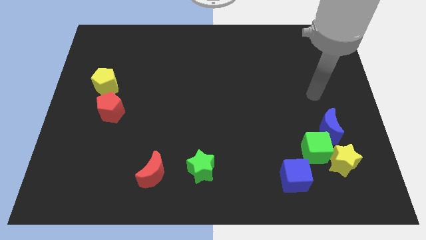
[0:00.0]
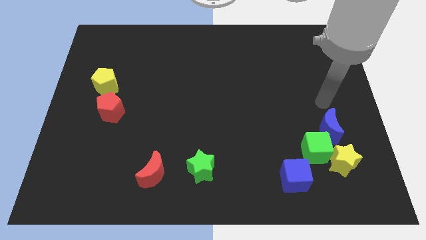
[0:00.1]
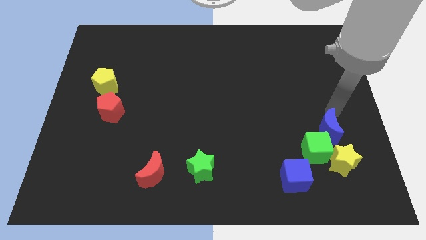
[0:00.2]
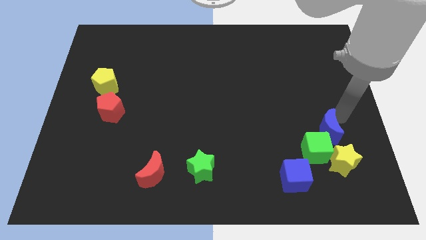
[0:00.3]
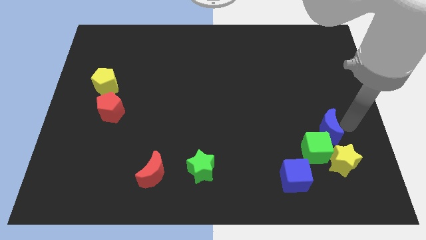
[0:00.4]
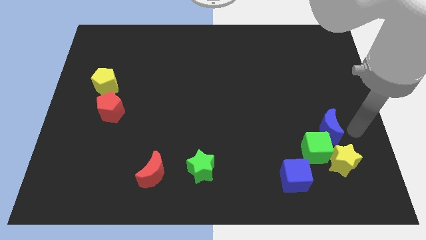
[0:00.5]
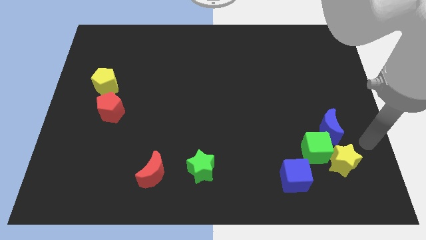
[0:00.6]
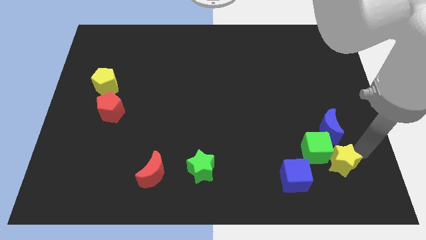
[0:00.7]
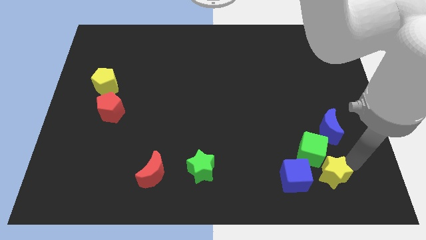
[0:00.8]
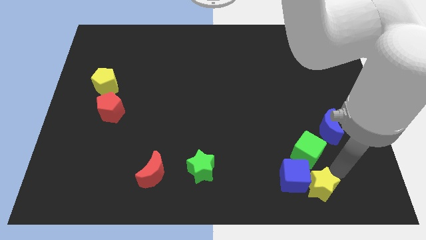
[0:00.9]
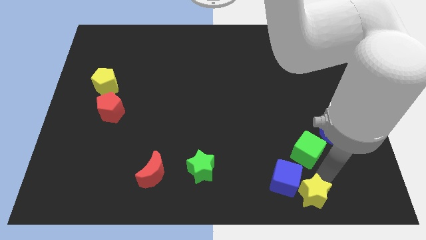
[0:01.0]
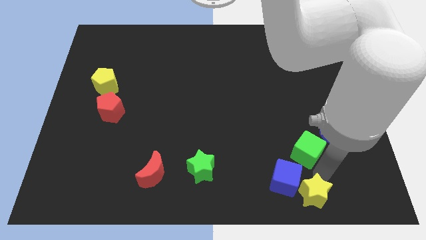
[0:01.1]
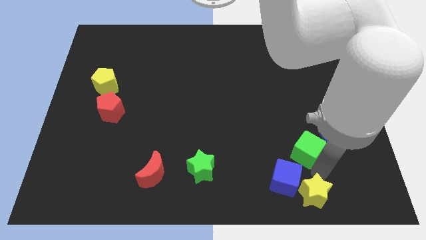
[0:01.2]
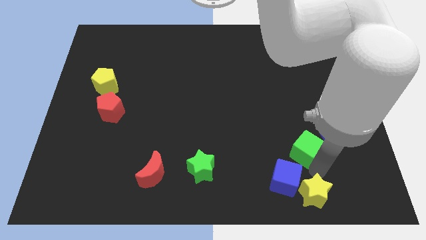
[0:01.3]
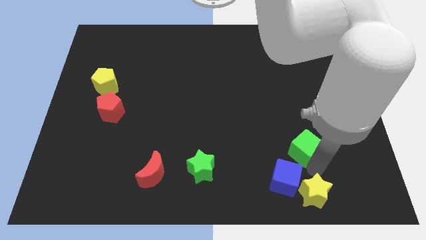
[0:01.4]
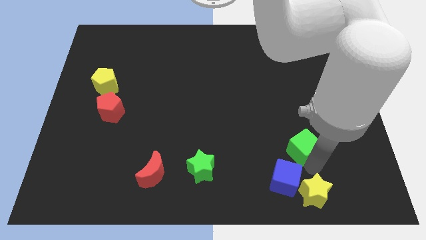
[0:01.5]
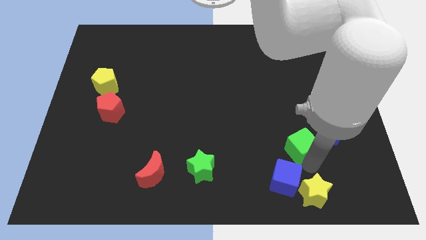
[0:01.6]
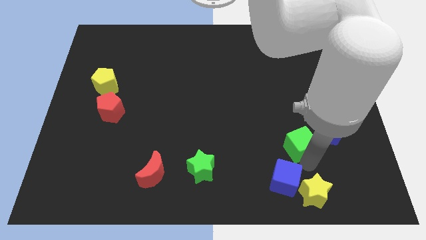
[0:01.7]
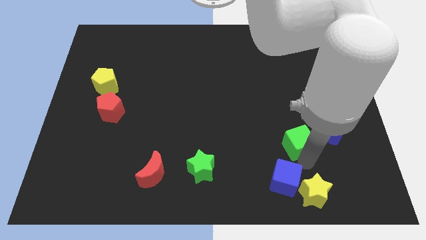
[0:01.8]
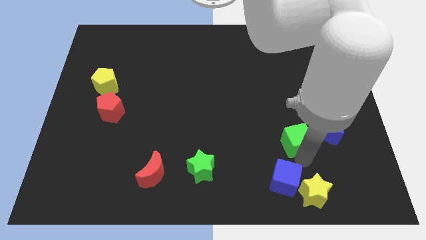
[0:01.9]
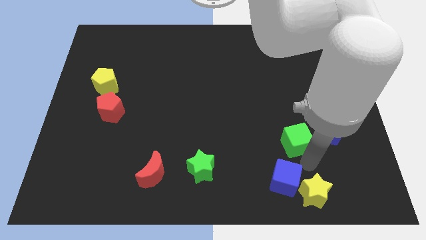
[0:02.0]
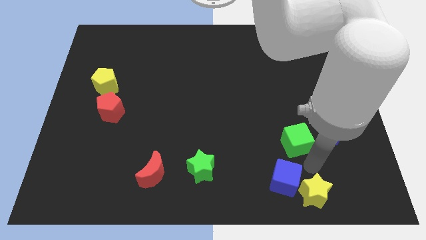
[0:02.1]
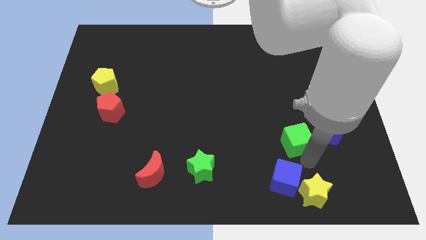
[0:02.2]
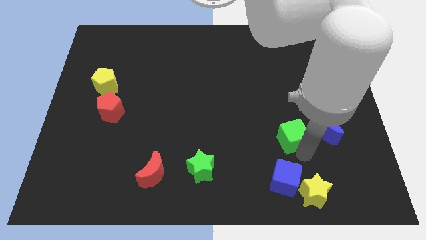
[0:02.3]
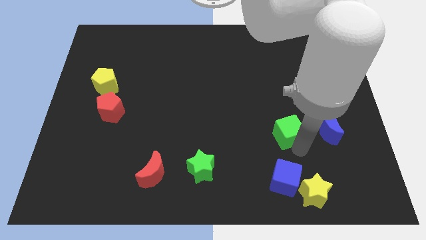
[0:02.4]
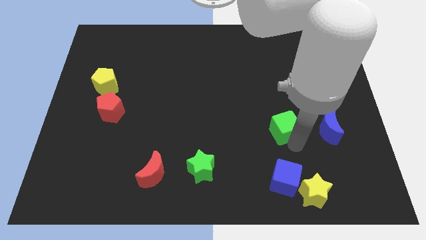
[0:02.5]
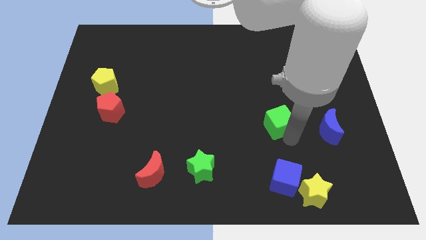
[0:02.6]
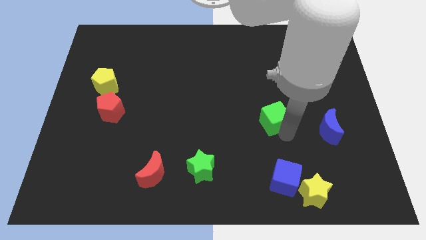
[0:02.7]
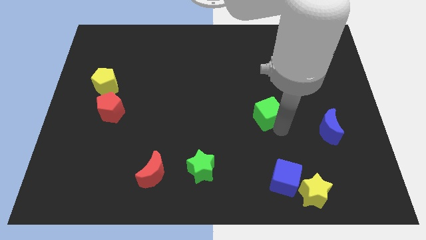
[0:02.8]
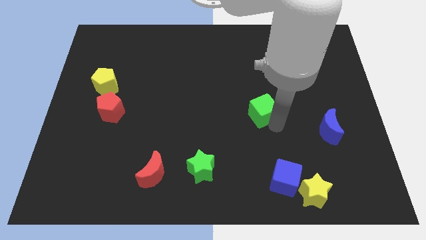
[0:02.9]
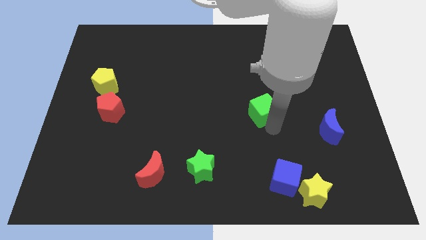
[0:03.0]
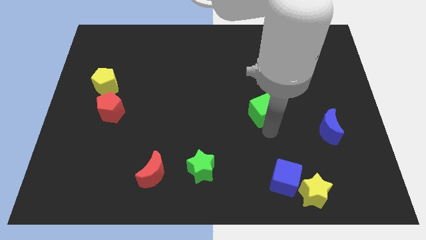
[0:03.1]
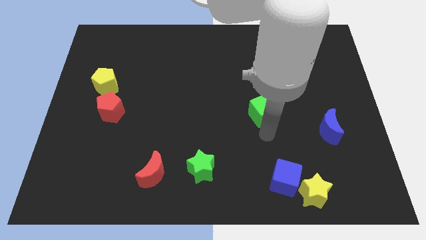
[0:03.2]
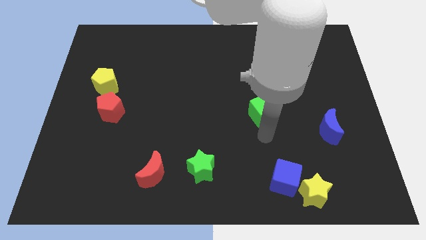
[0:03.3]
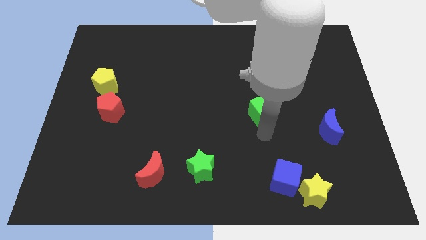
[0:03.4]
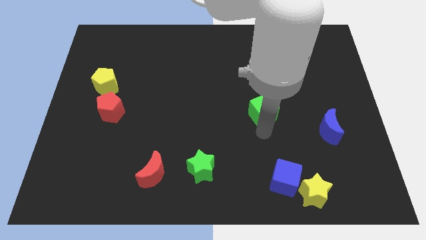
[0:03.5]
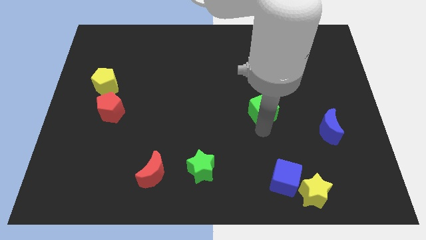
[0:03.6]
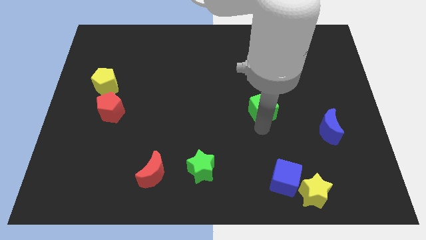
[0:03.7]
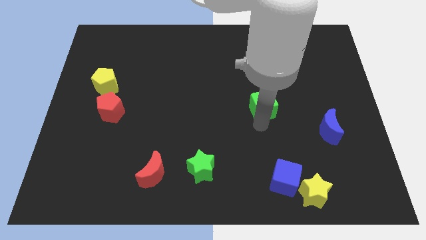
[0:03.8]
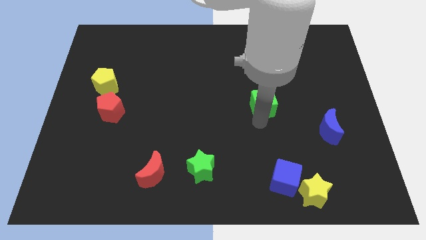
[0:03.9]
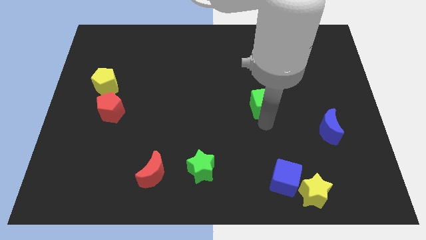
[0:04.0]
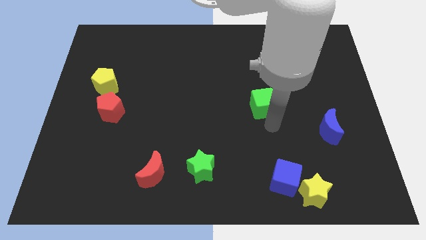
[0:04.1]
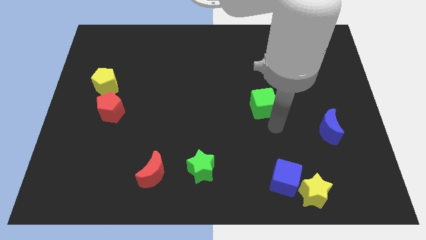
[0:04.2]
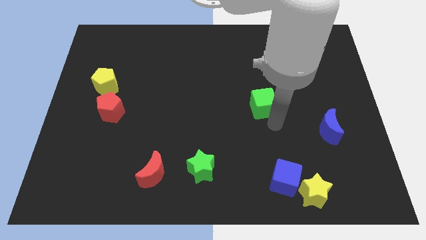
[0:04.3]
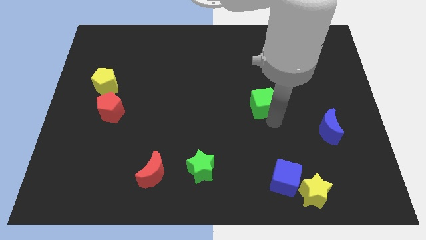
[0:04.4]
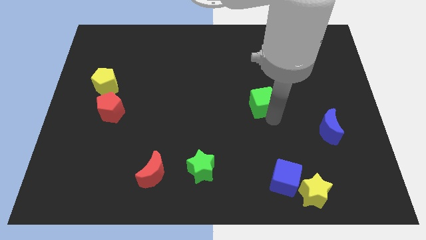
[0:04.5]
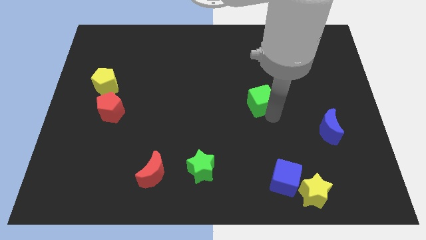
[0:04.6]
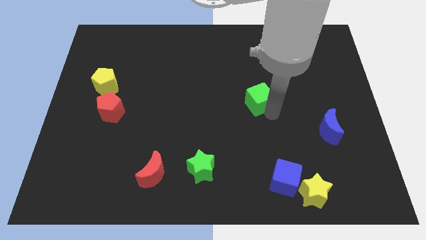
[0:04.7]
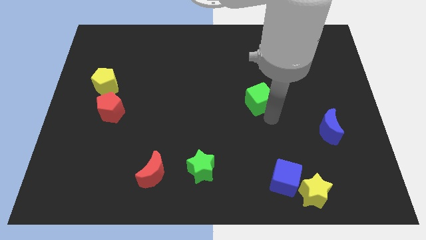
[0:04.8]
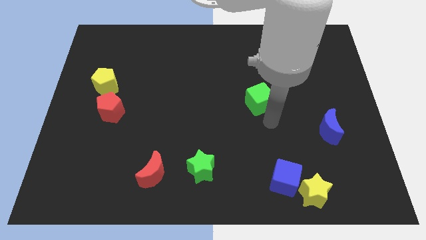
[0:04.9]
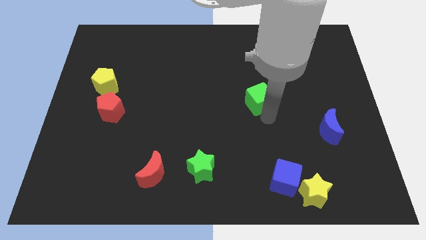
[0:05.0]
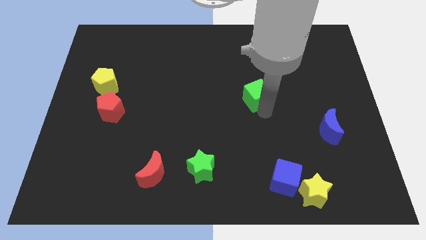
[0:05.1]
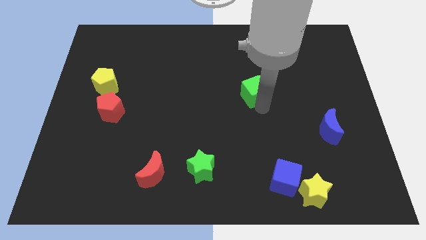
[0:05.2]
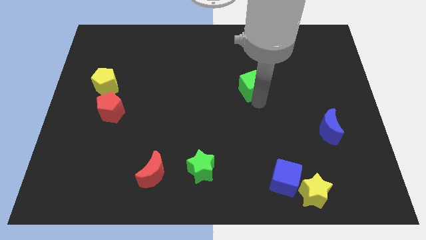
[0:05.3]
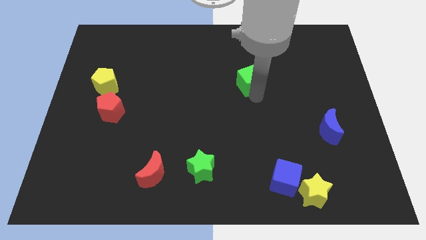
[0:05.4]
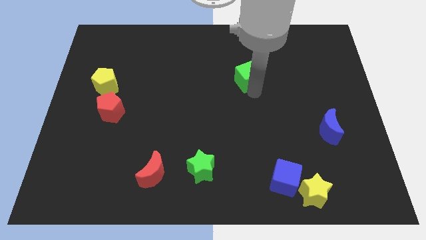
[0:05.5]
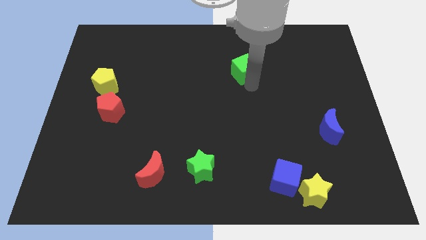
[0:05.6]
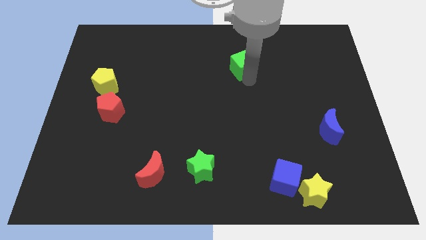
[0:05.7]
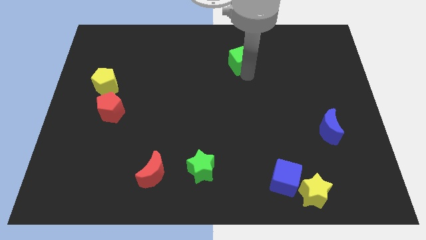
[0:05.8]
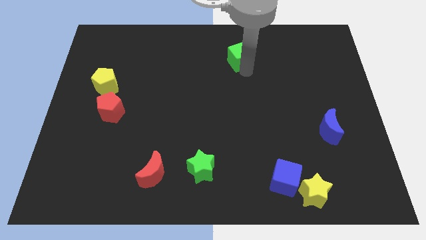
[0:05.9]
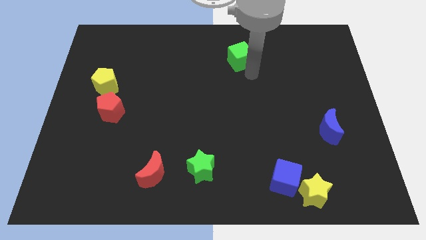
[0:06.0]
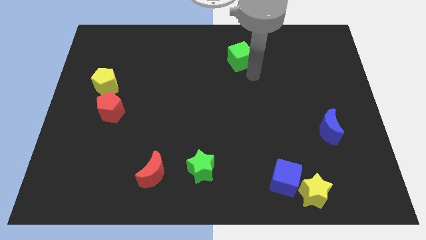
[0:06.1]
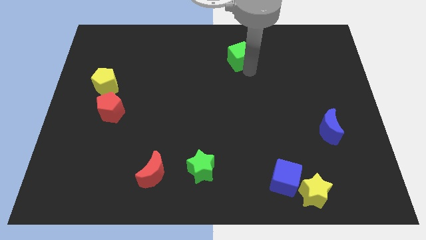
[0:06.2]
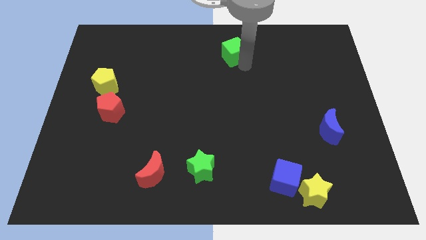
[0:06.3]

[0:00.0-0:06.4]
slide the green cube to the top side
